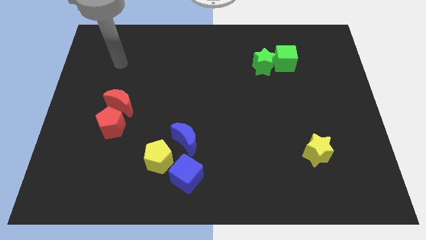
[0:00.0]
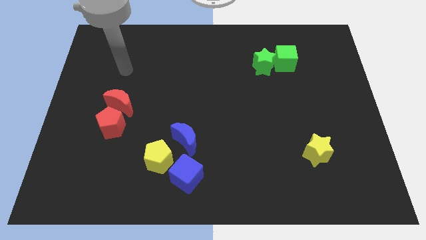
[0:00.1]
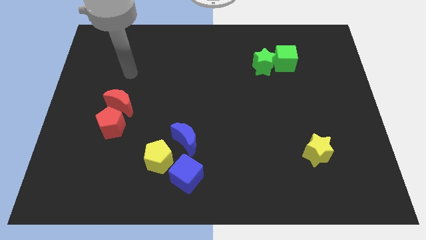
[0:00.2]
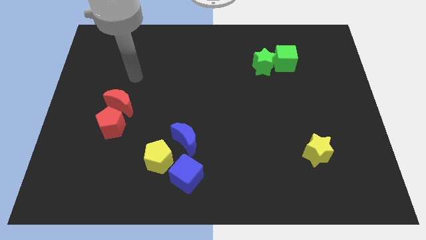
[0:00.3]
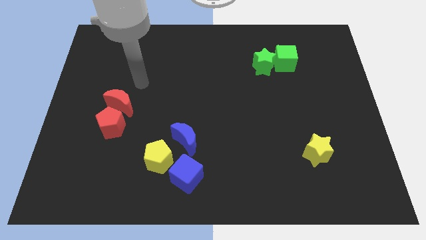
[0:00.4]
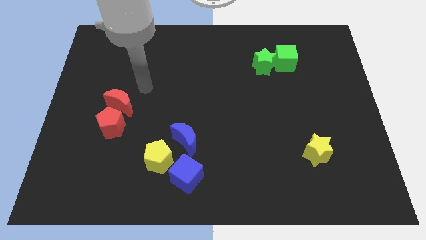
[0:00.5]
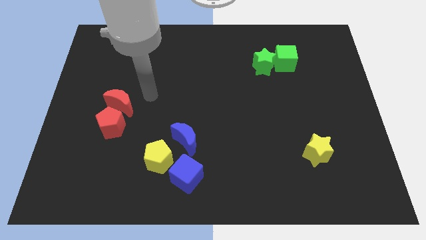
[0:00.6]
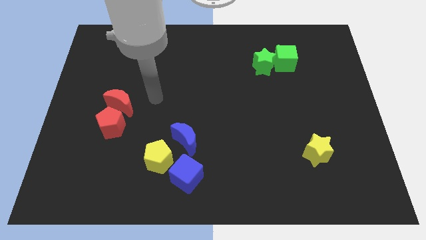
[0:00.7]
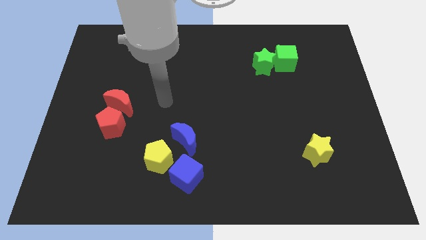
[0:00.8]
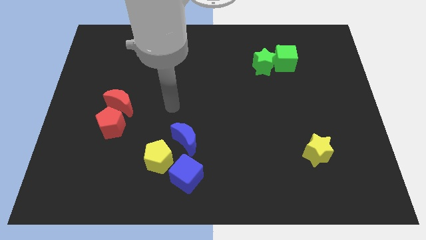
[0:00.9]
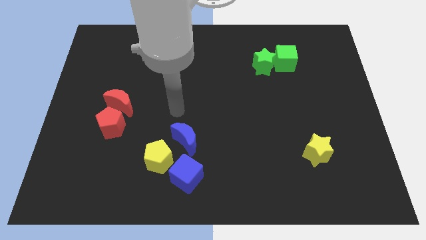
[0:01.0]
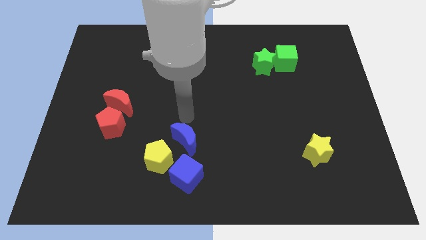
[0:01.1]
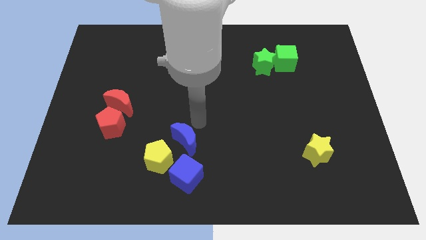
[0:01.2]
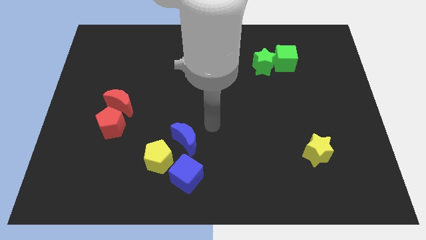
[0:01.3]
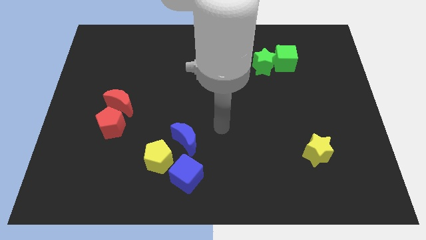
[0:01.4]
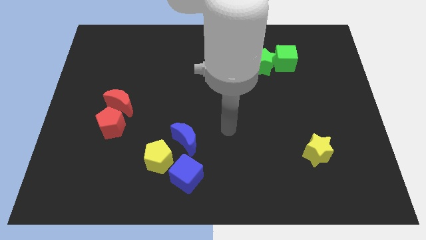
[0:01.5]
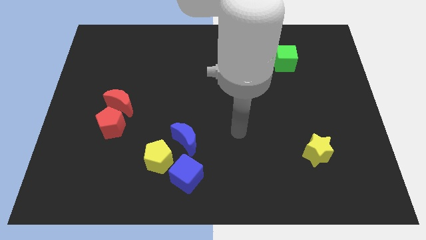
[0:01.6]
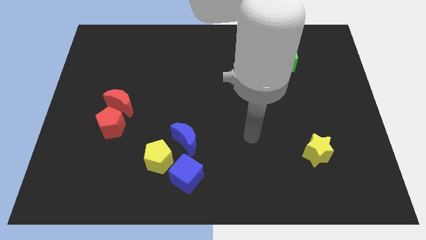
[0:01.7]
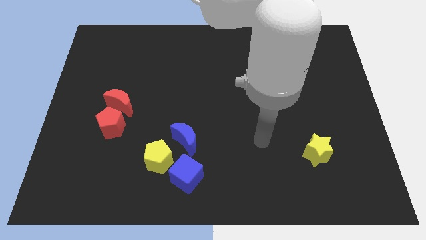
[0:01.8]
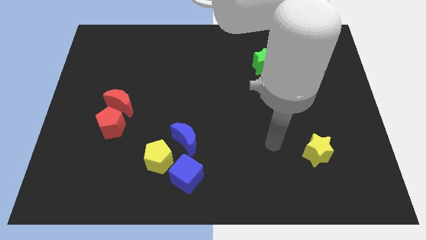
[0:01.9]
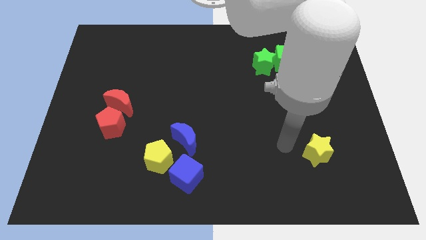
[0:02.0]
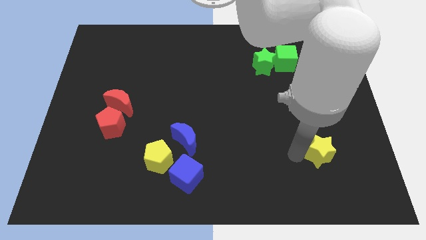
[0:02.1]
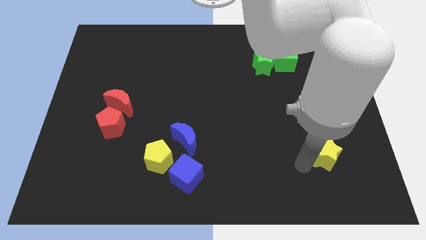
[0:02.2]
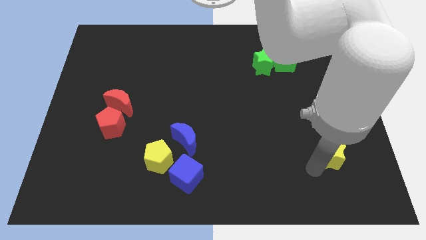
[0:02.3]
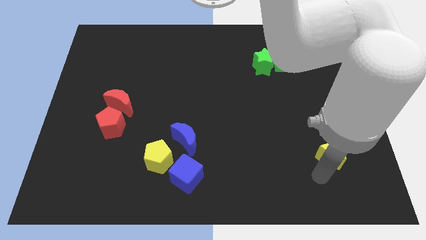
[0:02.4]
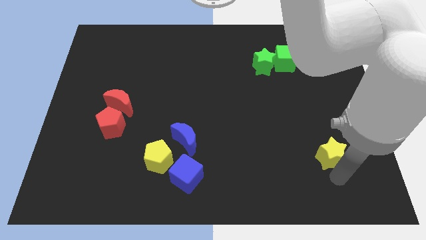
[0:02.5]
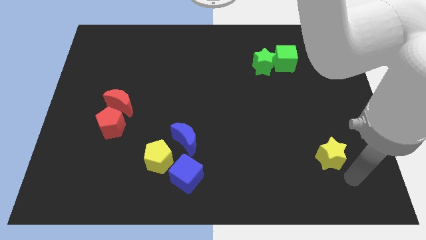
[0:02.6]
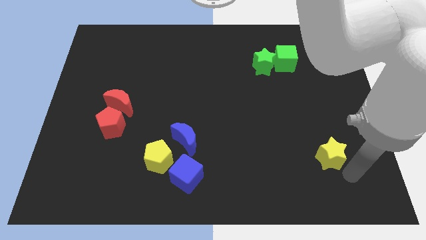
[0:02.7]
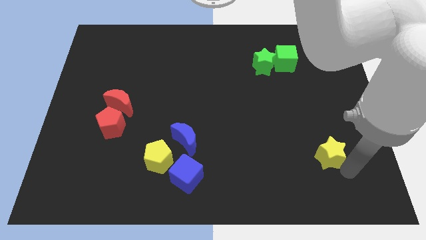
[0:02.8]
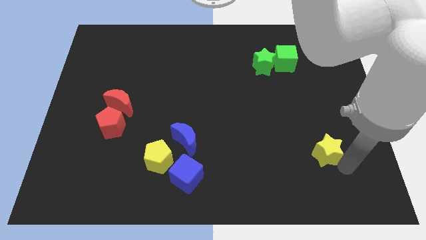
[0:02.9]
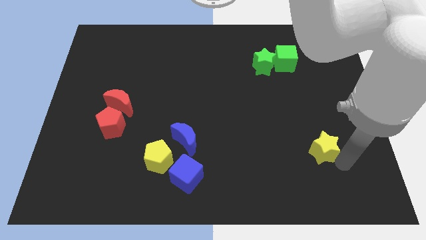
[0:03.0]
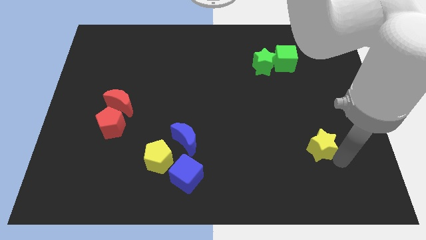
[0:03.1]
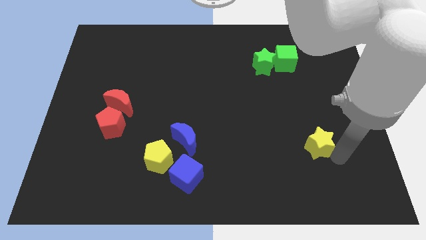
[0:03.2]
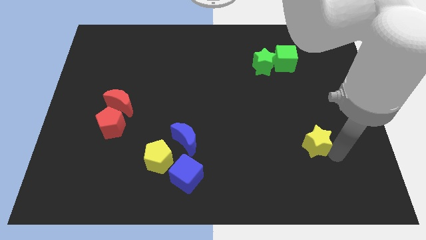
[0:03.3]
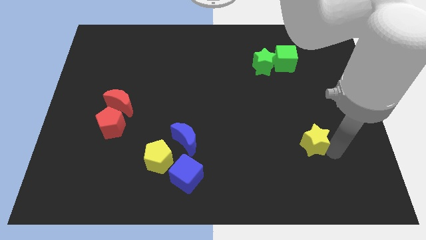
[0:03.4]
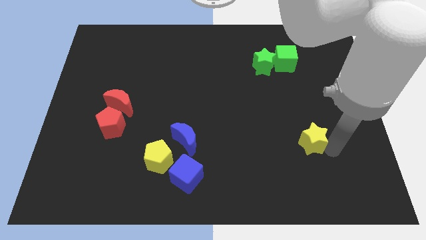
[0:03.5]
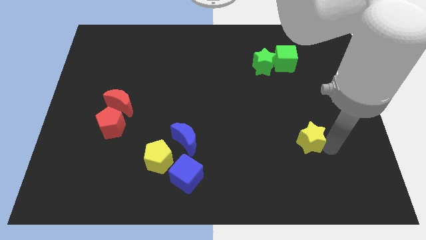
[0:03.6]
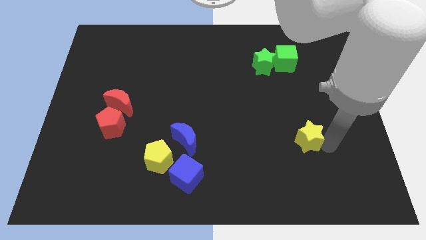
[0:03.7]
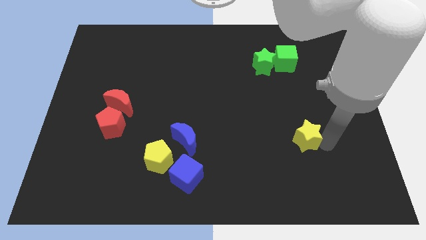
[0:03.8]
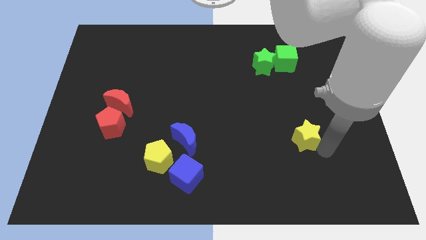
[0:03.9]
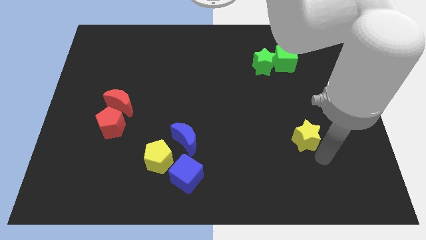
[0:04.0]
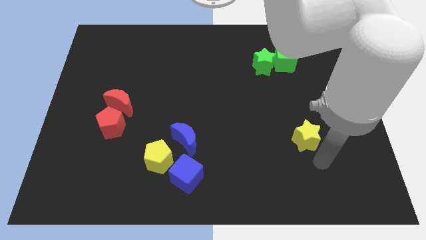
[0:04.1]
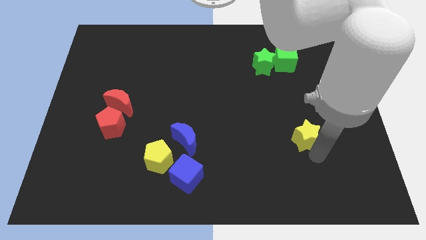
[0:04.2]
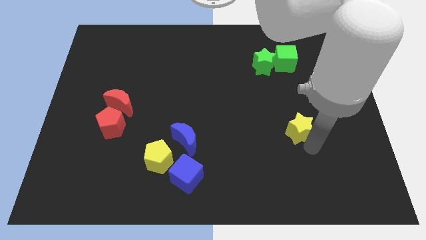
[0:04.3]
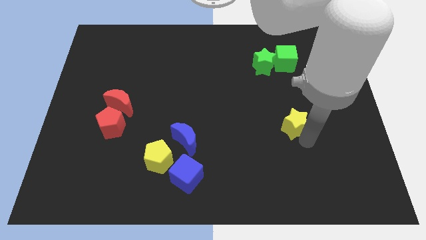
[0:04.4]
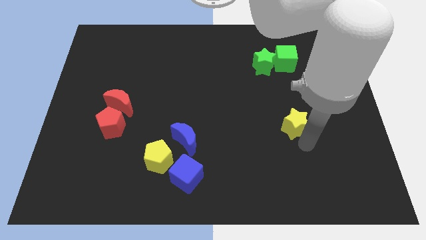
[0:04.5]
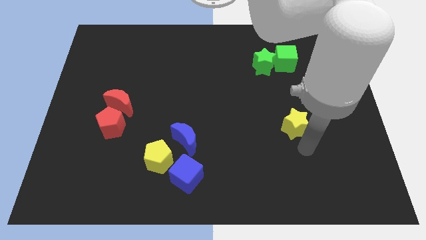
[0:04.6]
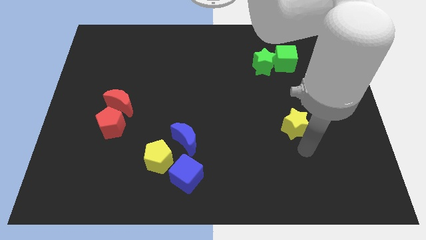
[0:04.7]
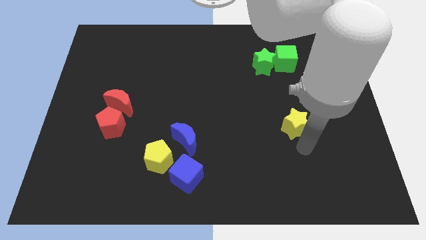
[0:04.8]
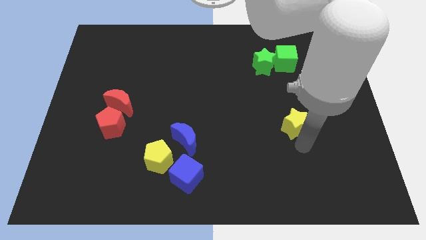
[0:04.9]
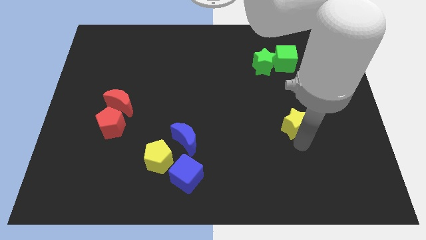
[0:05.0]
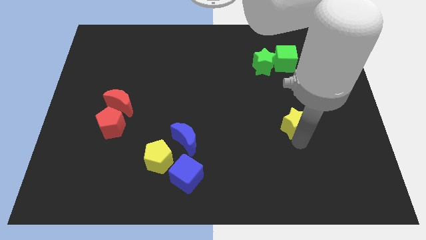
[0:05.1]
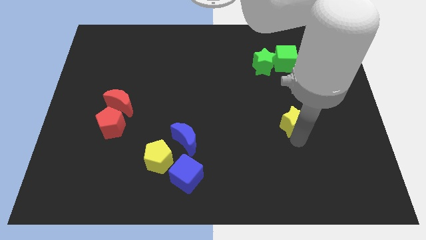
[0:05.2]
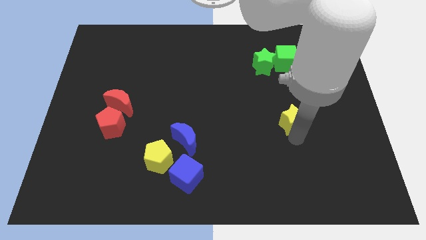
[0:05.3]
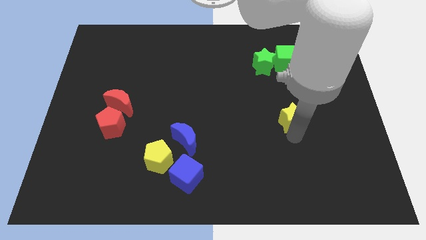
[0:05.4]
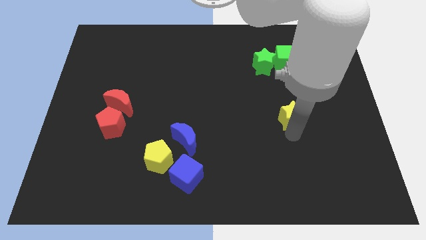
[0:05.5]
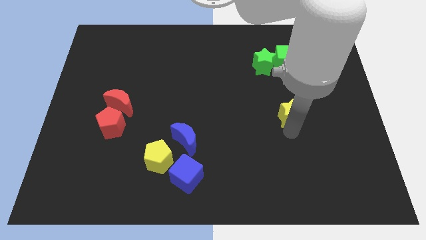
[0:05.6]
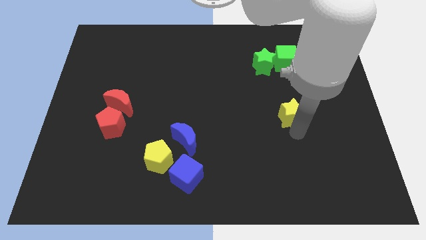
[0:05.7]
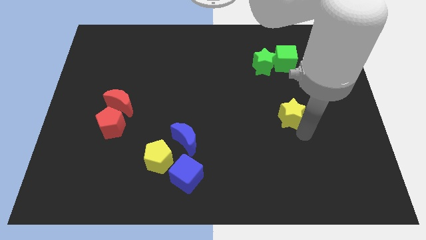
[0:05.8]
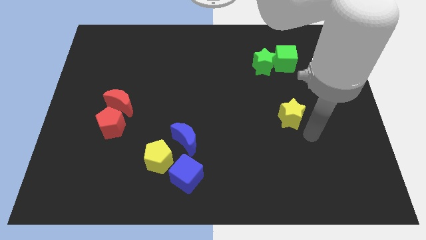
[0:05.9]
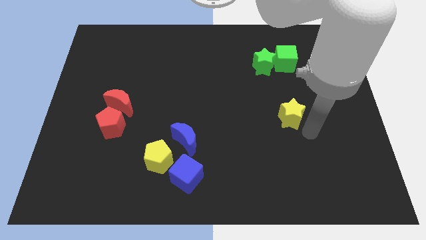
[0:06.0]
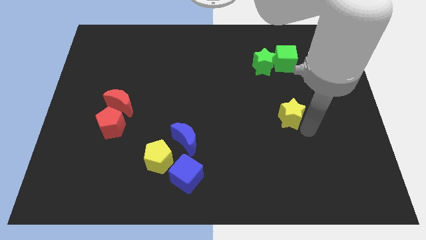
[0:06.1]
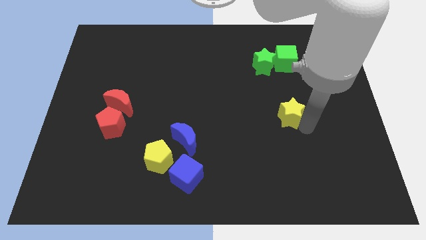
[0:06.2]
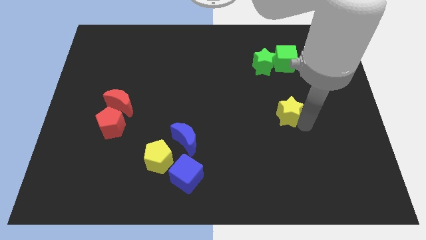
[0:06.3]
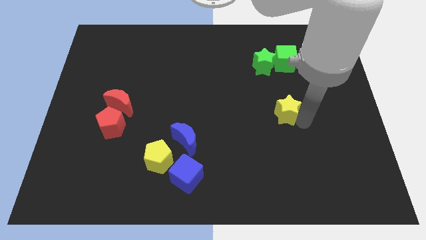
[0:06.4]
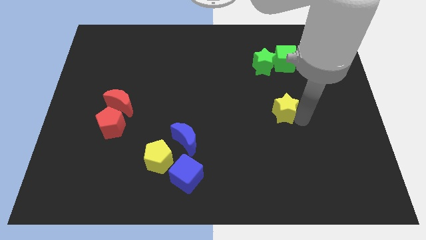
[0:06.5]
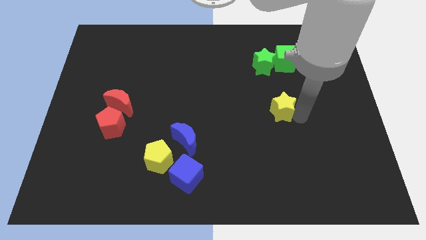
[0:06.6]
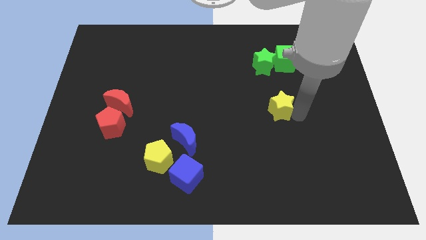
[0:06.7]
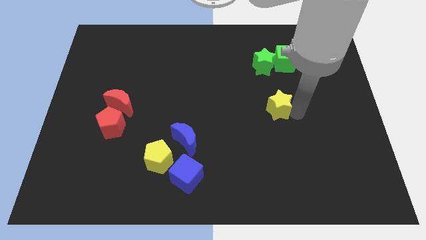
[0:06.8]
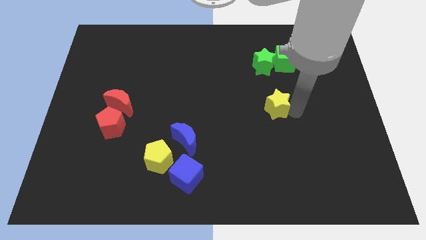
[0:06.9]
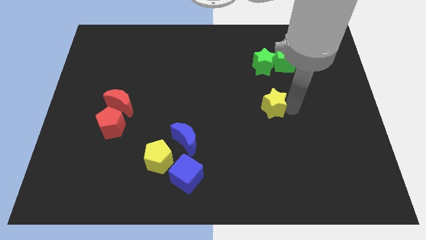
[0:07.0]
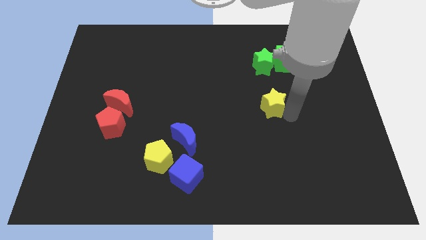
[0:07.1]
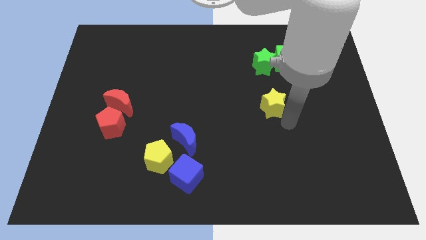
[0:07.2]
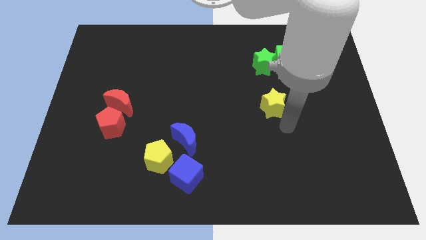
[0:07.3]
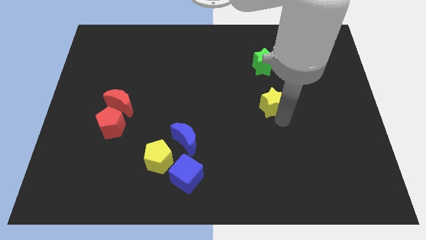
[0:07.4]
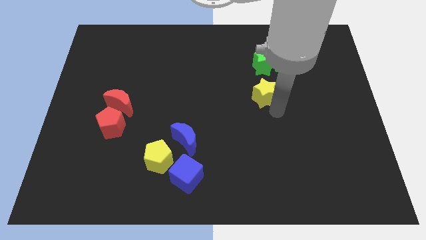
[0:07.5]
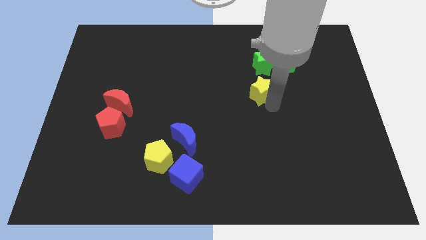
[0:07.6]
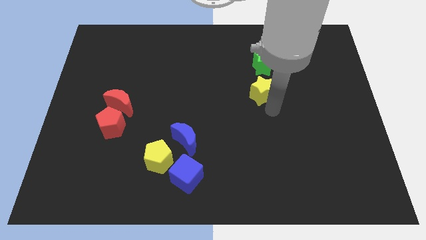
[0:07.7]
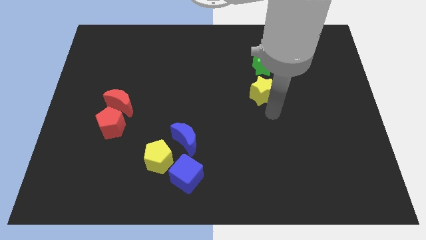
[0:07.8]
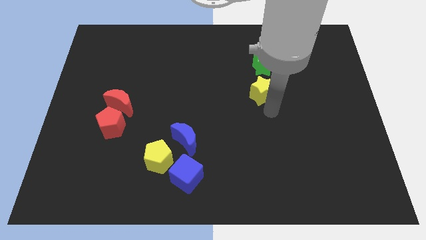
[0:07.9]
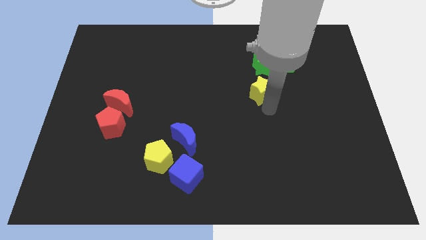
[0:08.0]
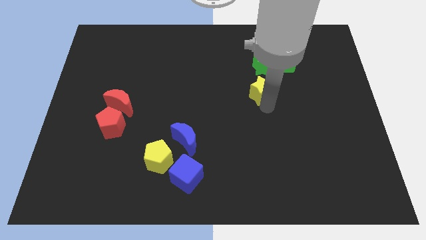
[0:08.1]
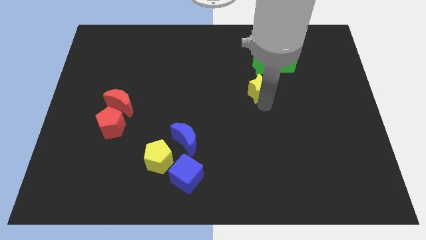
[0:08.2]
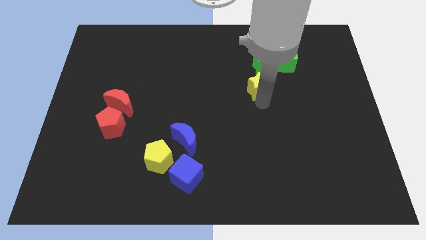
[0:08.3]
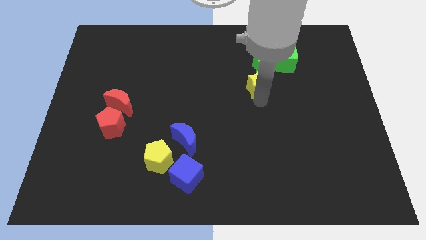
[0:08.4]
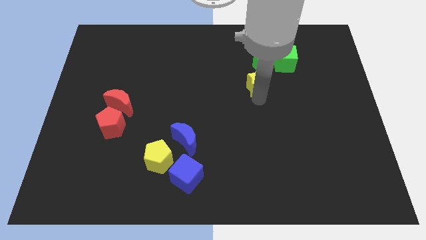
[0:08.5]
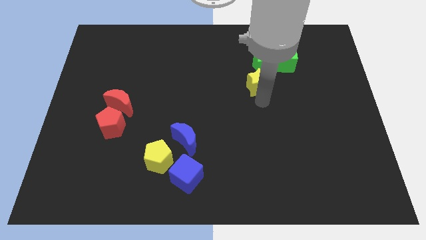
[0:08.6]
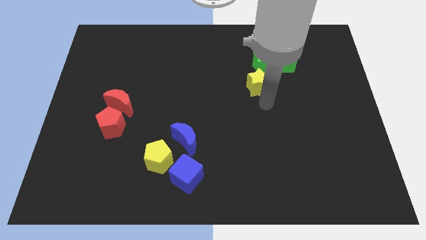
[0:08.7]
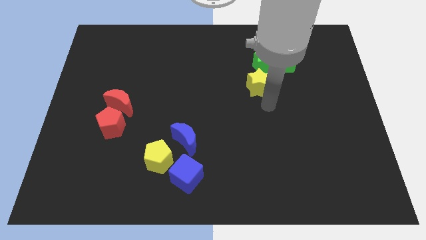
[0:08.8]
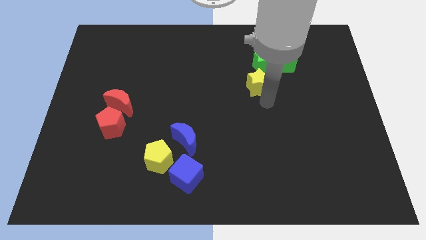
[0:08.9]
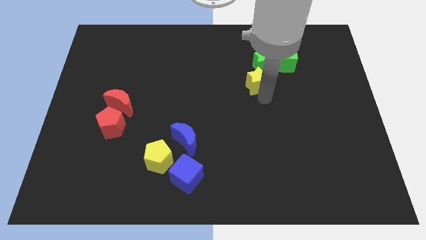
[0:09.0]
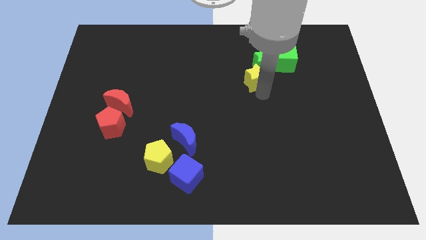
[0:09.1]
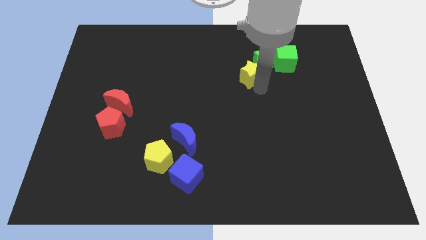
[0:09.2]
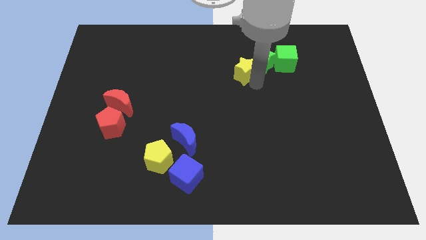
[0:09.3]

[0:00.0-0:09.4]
move the yellow star to the left side of the green cube
